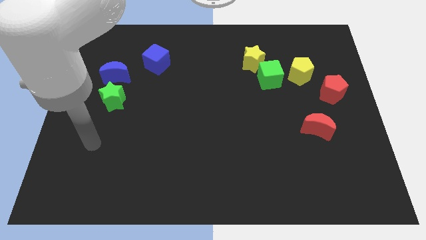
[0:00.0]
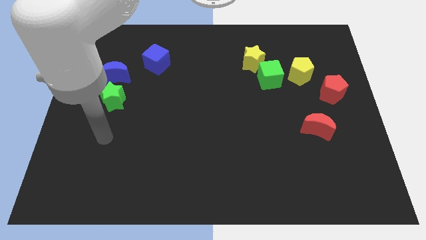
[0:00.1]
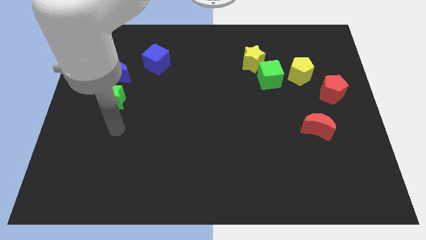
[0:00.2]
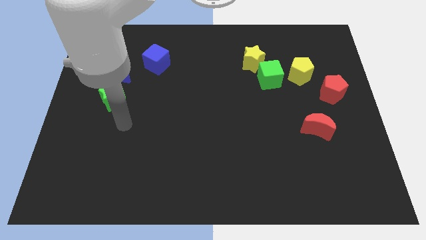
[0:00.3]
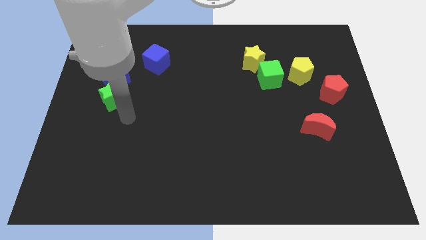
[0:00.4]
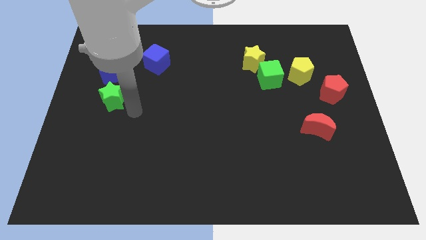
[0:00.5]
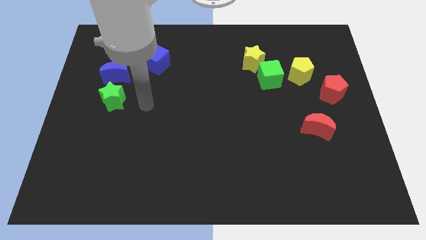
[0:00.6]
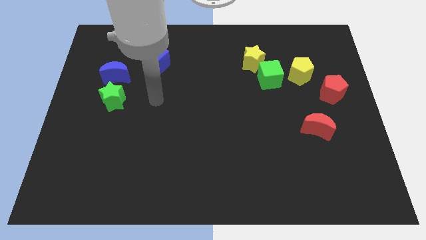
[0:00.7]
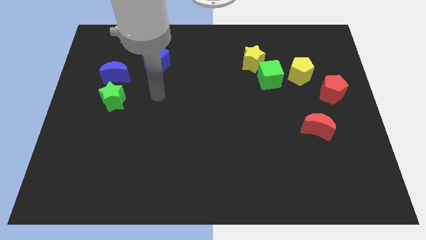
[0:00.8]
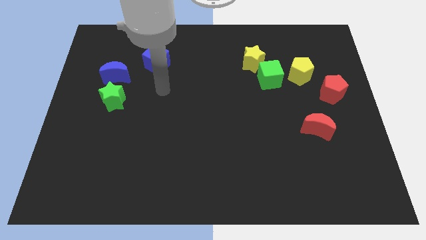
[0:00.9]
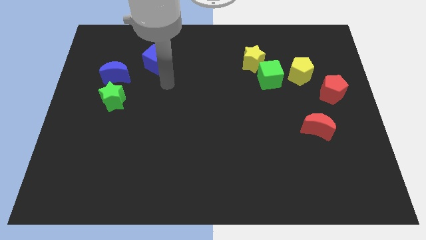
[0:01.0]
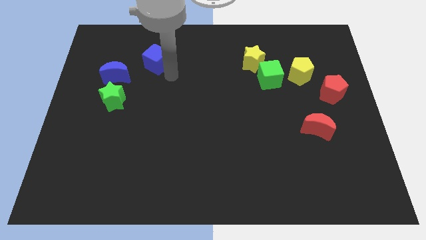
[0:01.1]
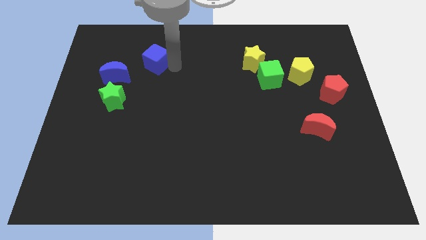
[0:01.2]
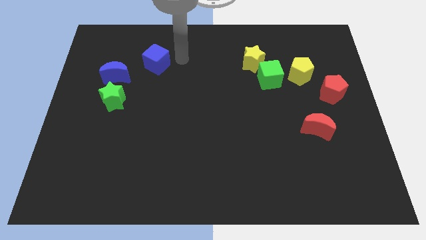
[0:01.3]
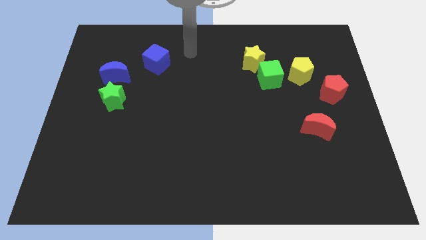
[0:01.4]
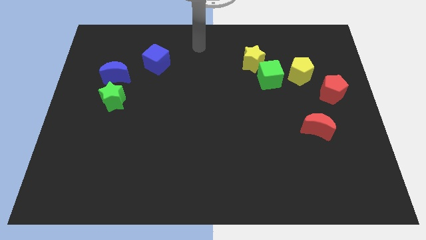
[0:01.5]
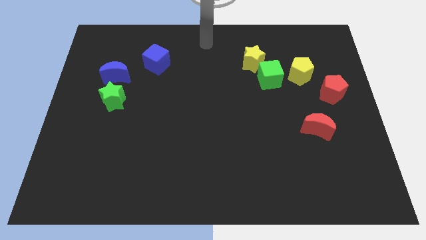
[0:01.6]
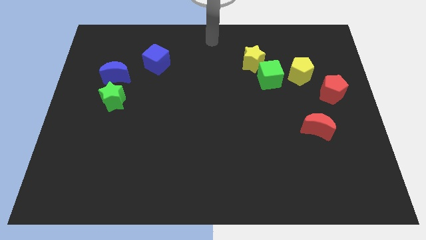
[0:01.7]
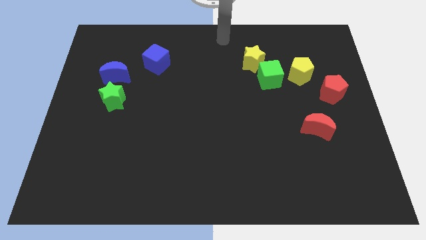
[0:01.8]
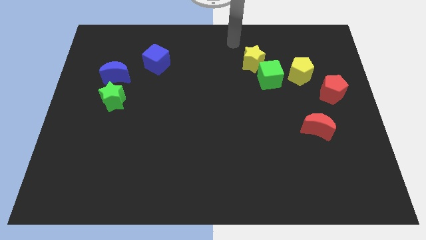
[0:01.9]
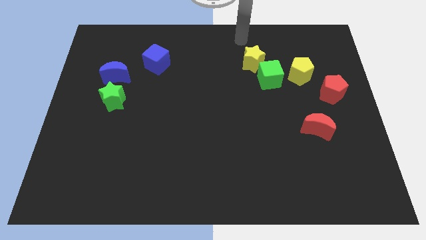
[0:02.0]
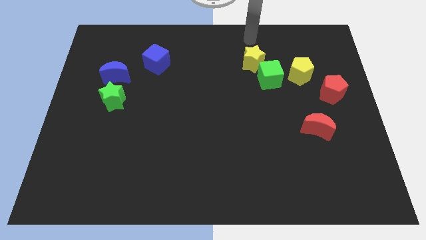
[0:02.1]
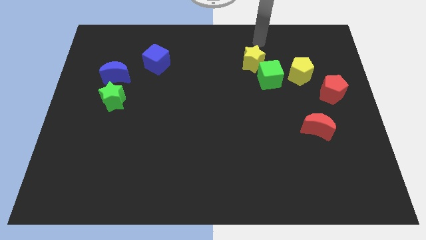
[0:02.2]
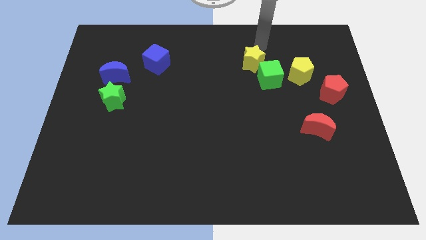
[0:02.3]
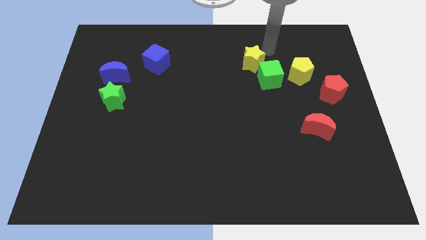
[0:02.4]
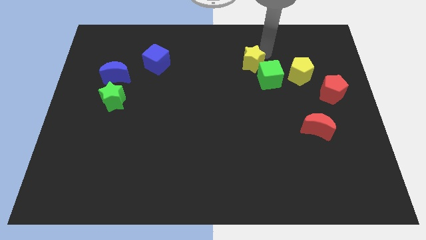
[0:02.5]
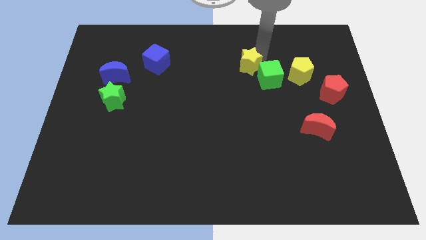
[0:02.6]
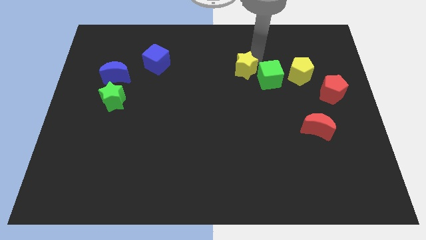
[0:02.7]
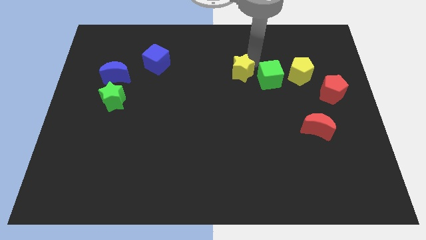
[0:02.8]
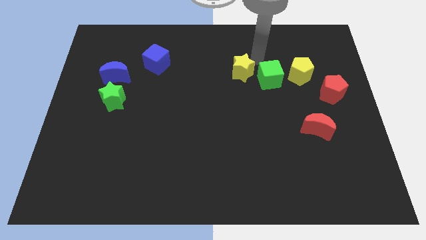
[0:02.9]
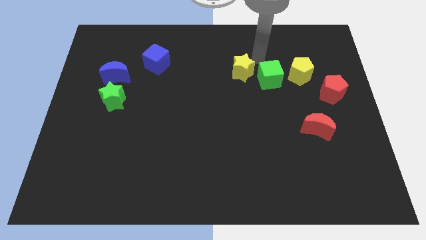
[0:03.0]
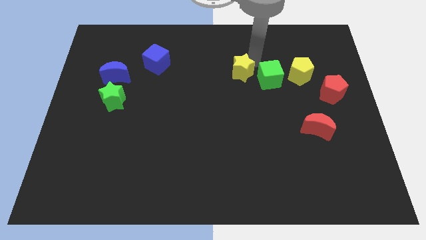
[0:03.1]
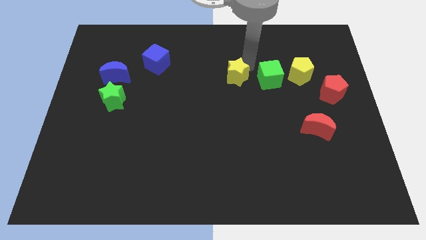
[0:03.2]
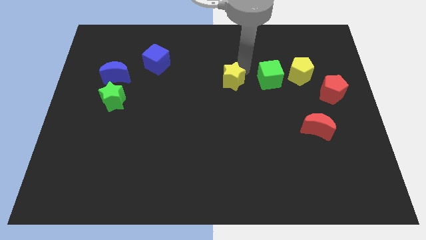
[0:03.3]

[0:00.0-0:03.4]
move the yellow star slightly down and then to the left

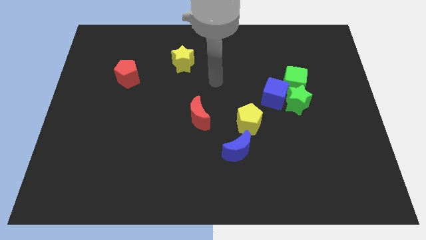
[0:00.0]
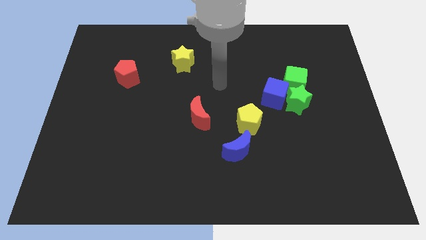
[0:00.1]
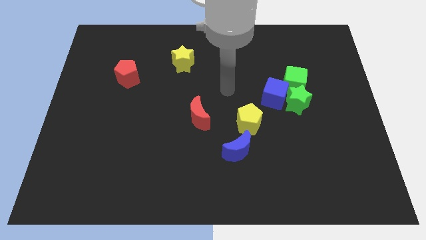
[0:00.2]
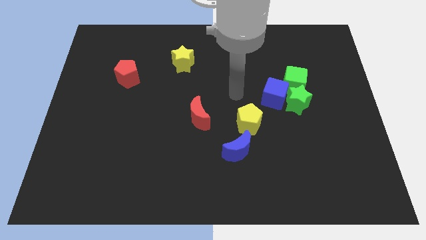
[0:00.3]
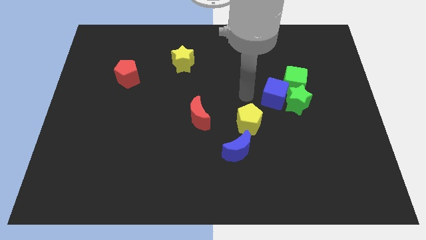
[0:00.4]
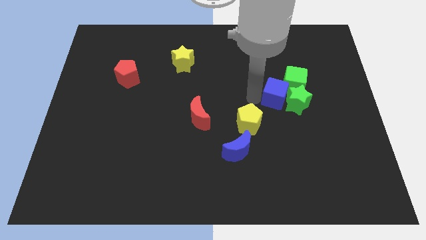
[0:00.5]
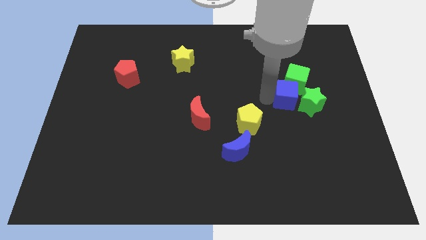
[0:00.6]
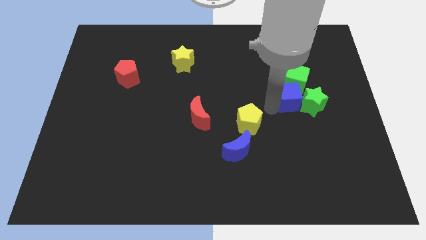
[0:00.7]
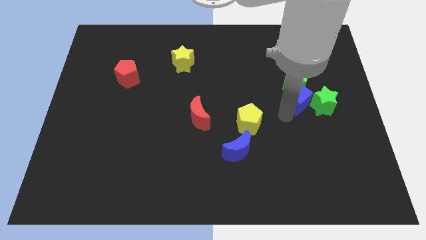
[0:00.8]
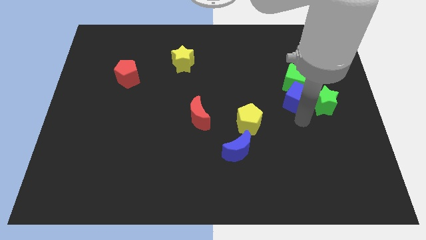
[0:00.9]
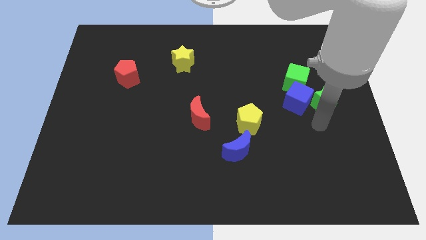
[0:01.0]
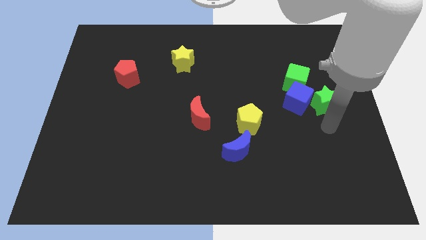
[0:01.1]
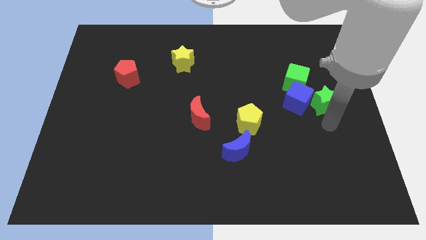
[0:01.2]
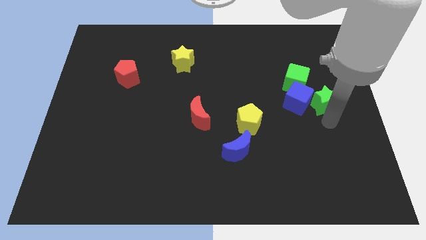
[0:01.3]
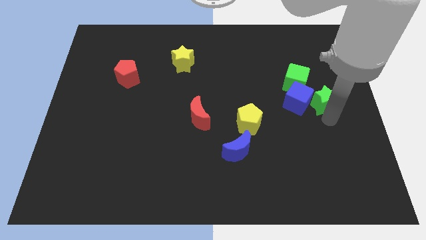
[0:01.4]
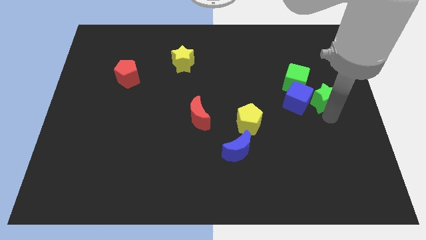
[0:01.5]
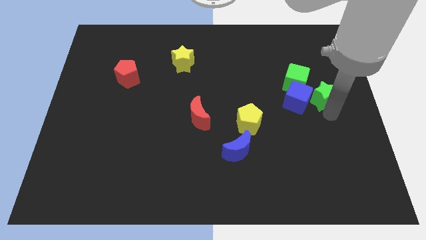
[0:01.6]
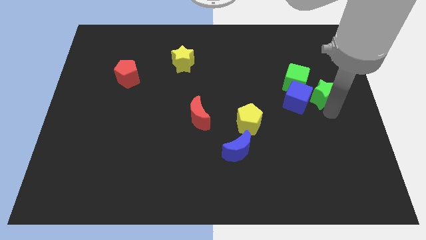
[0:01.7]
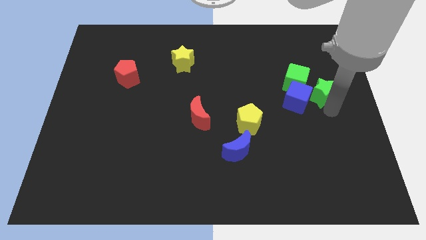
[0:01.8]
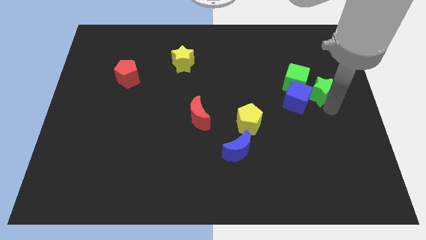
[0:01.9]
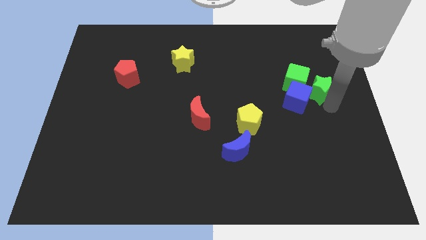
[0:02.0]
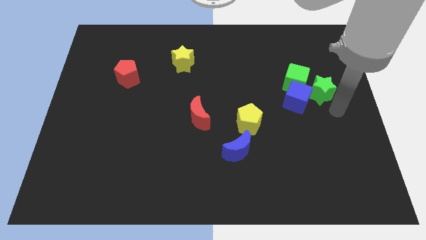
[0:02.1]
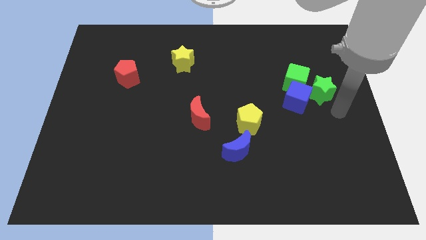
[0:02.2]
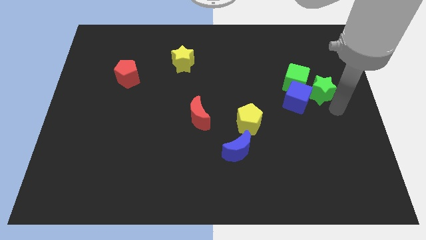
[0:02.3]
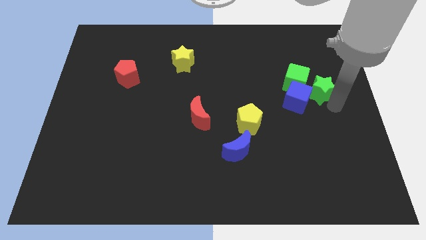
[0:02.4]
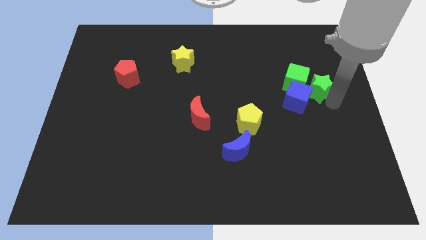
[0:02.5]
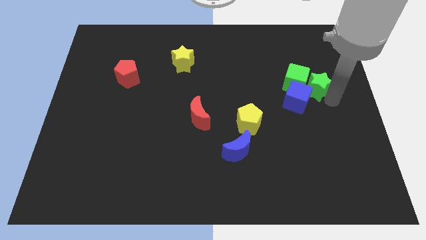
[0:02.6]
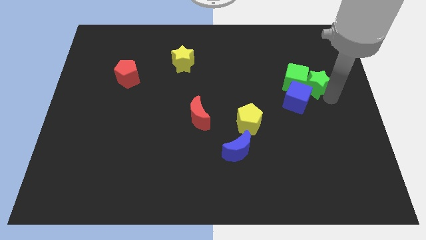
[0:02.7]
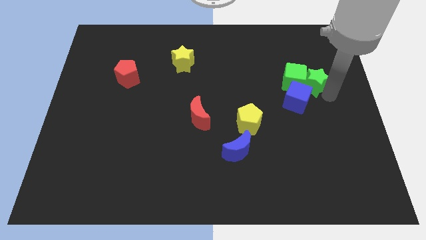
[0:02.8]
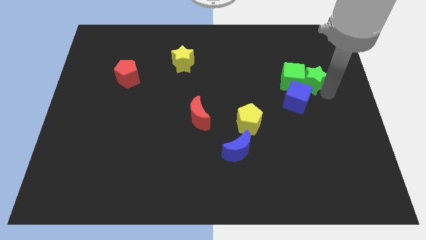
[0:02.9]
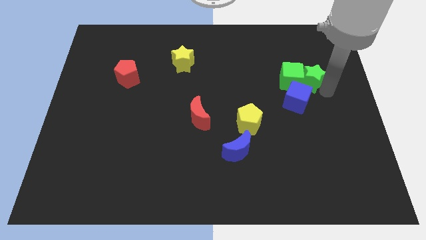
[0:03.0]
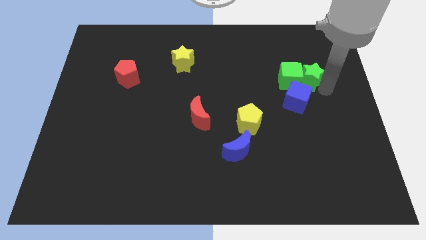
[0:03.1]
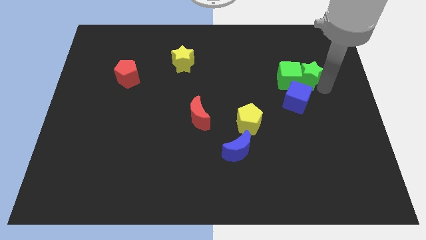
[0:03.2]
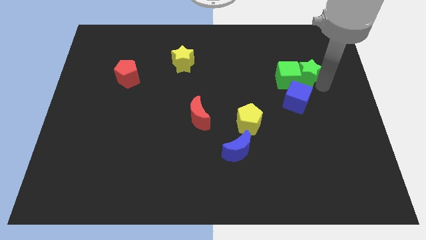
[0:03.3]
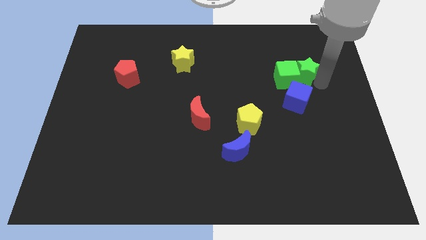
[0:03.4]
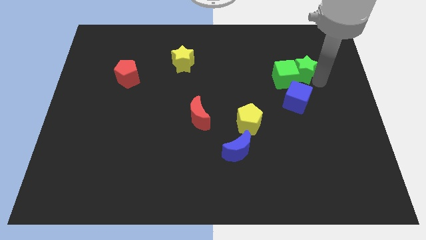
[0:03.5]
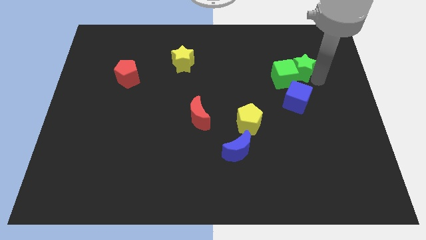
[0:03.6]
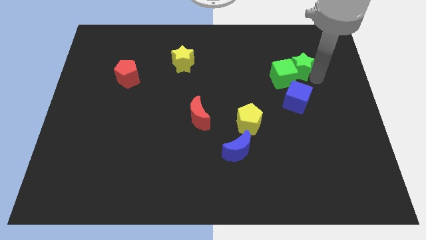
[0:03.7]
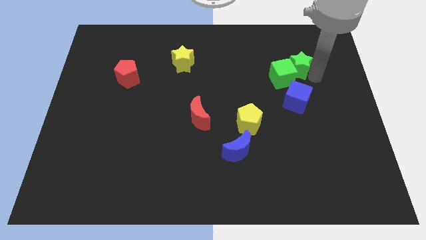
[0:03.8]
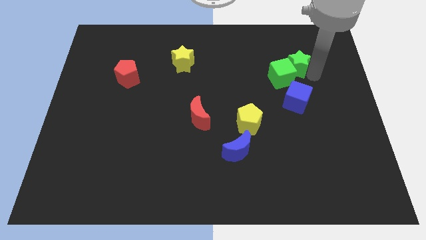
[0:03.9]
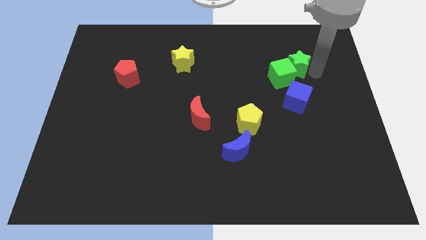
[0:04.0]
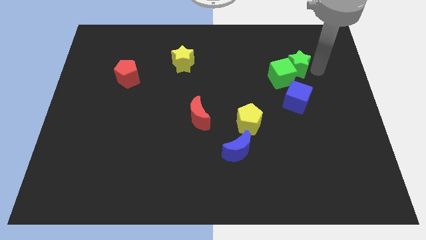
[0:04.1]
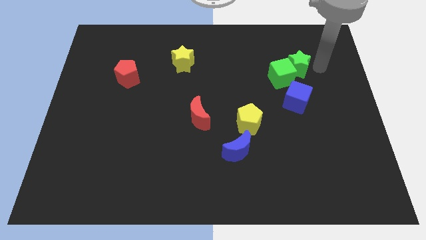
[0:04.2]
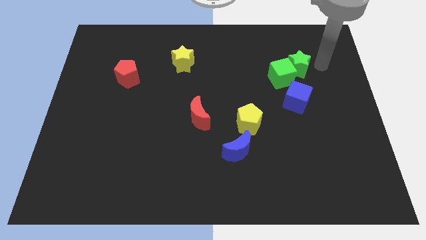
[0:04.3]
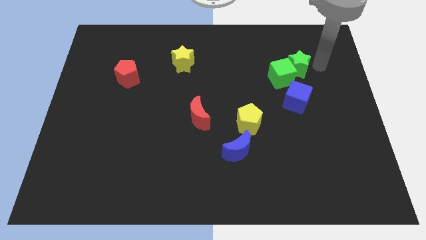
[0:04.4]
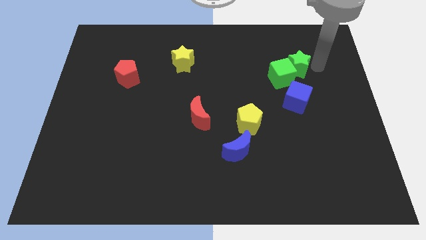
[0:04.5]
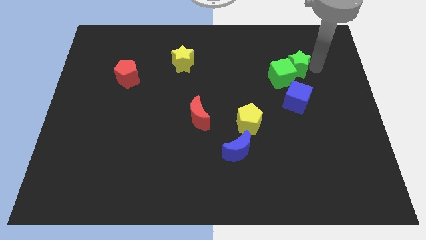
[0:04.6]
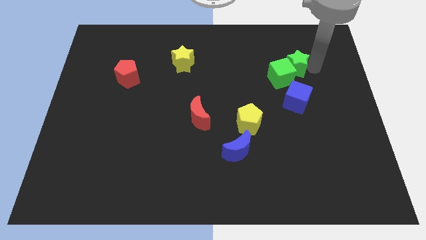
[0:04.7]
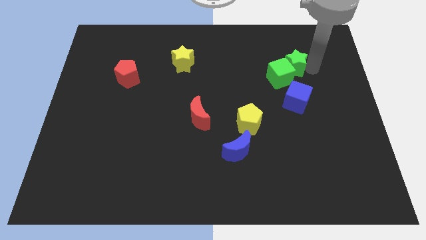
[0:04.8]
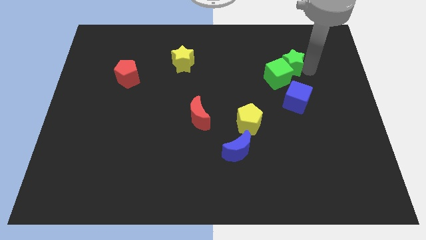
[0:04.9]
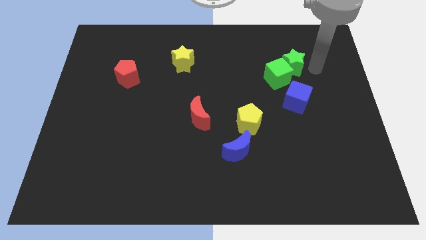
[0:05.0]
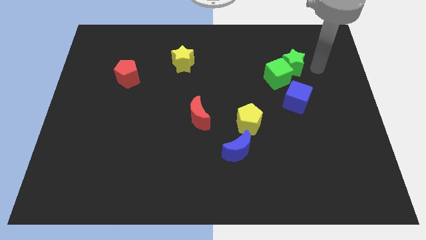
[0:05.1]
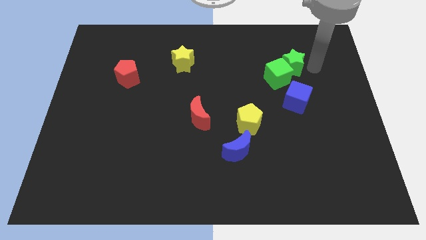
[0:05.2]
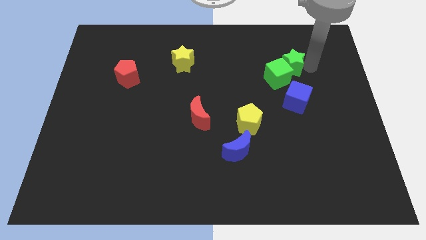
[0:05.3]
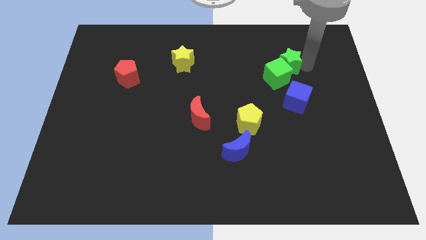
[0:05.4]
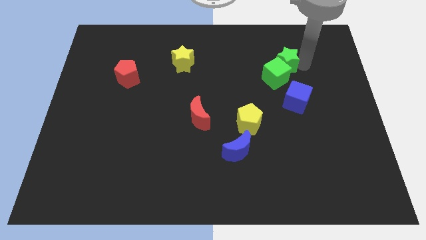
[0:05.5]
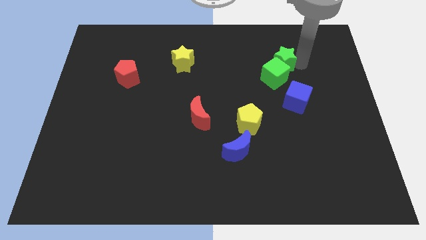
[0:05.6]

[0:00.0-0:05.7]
slightly slide the green star upwards and then left
